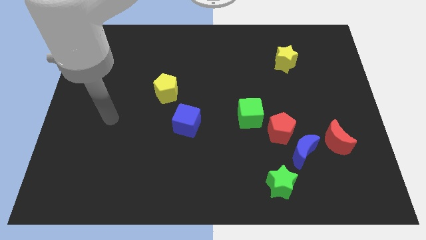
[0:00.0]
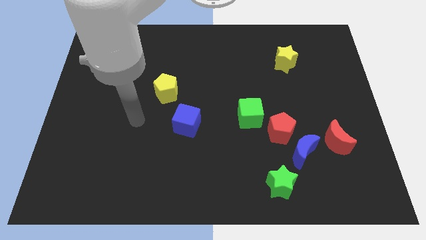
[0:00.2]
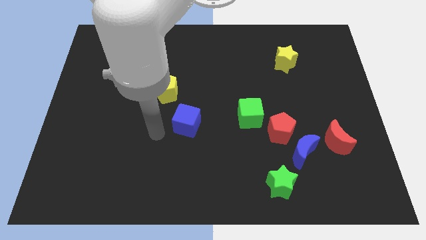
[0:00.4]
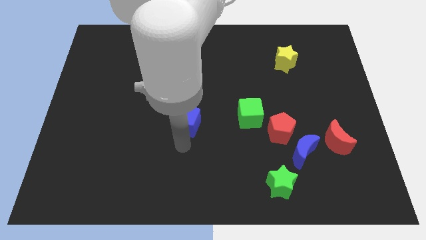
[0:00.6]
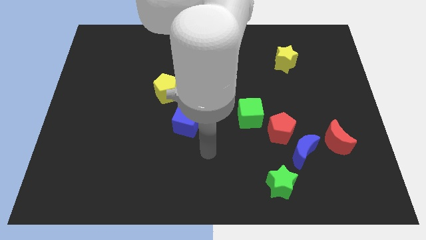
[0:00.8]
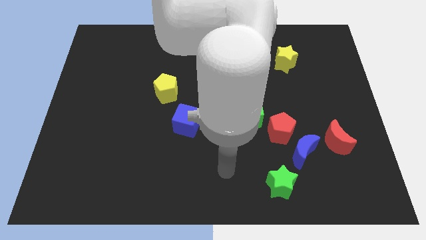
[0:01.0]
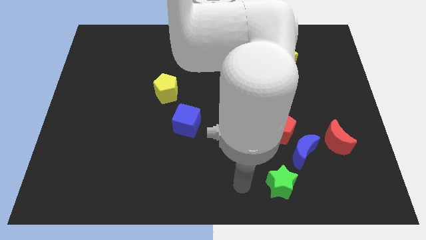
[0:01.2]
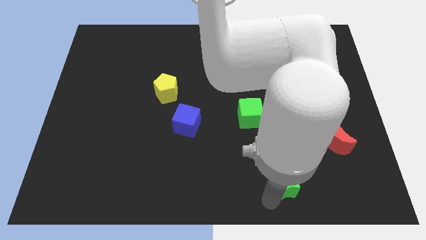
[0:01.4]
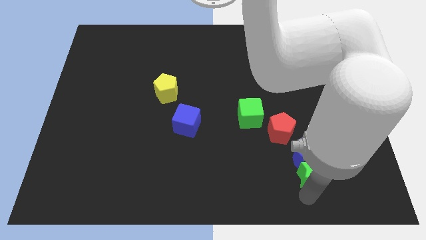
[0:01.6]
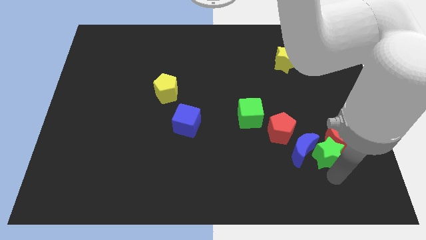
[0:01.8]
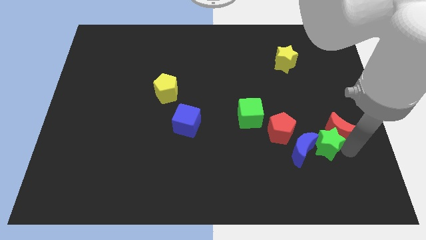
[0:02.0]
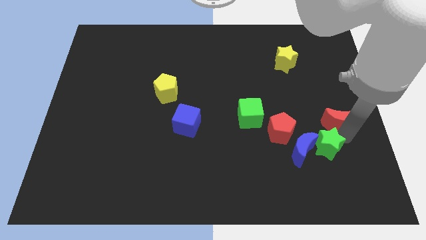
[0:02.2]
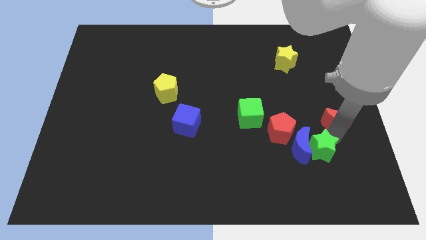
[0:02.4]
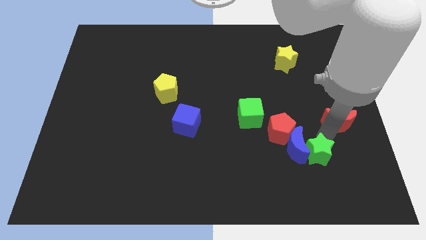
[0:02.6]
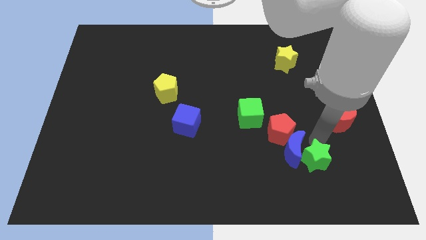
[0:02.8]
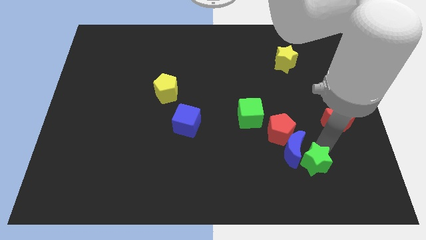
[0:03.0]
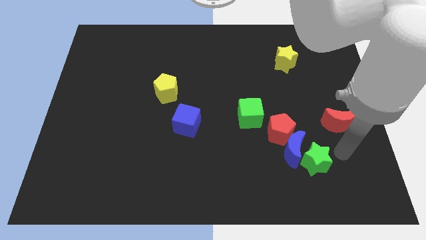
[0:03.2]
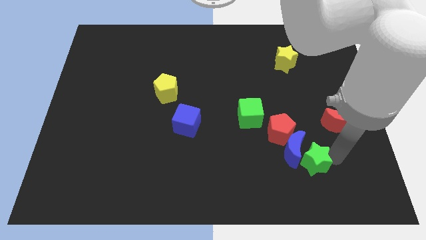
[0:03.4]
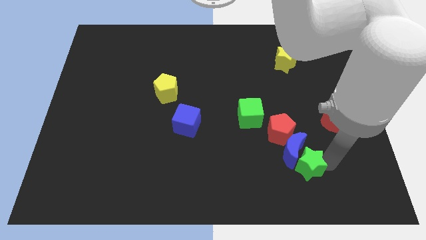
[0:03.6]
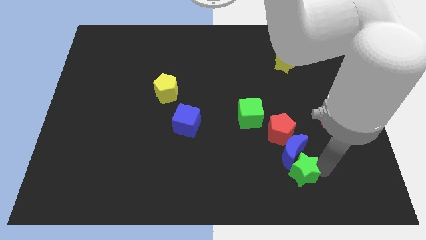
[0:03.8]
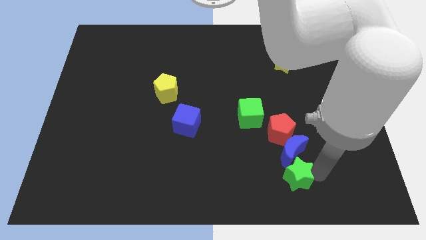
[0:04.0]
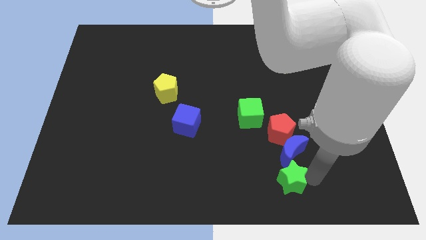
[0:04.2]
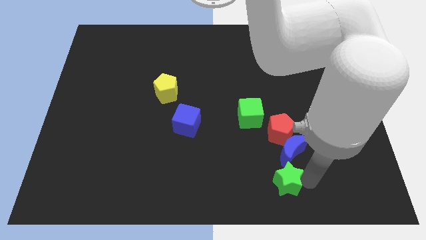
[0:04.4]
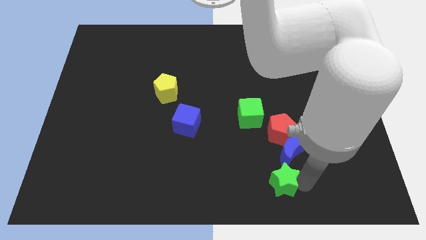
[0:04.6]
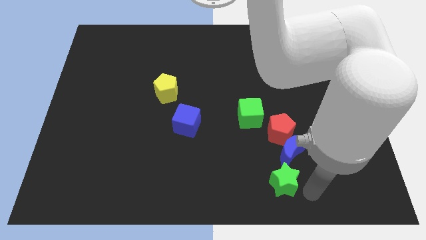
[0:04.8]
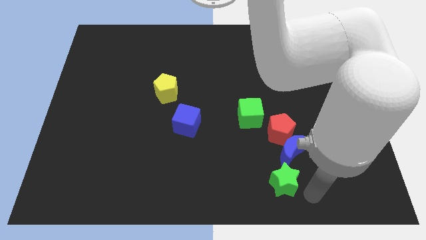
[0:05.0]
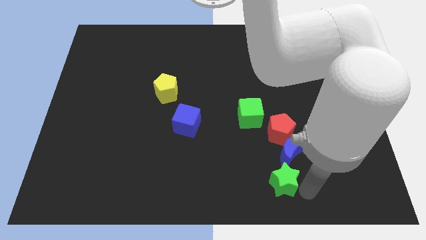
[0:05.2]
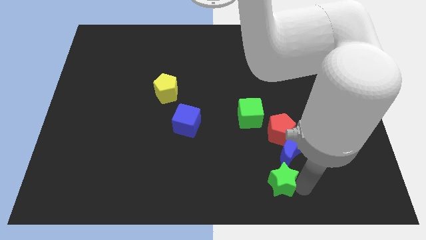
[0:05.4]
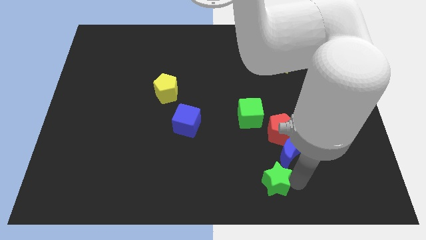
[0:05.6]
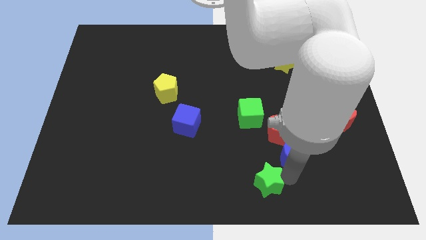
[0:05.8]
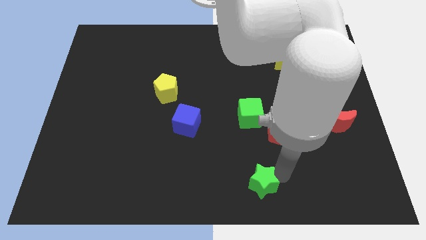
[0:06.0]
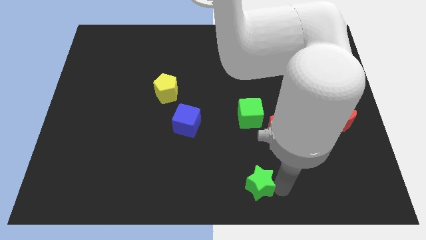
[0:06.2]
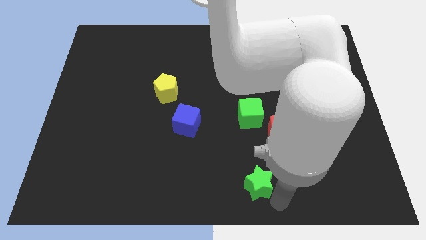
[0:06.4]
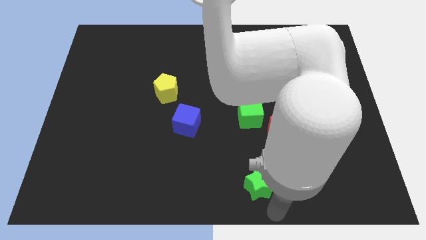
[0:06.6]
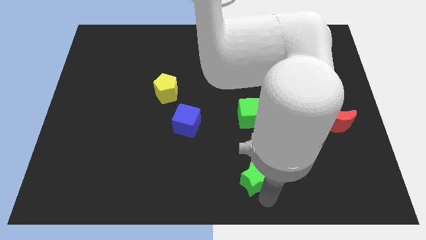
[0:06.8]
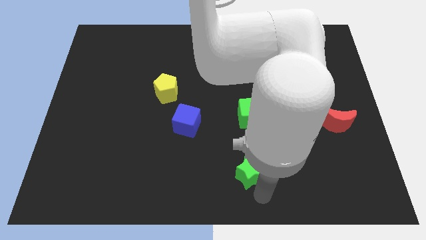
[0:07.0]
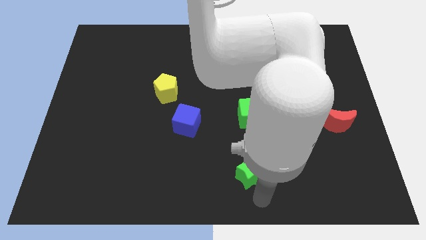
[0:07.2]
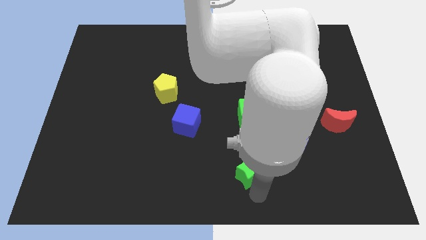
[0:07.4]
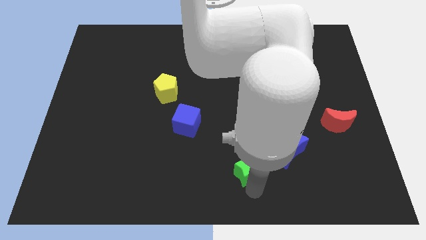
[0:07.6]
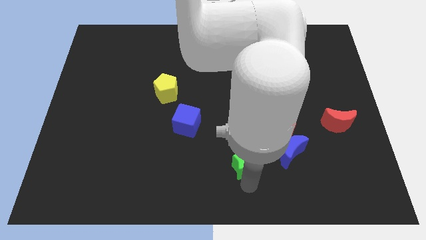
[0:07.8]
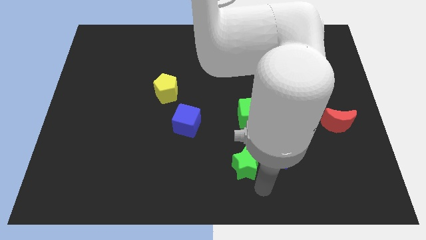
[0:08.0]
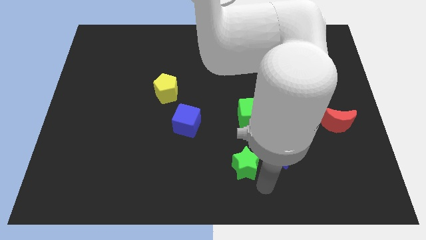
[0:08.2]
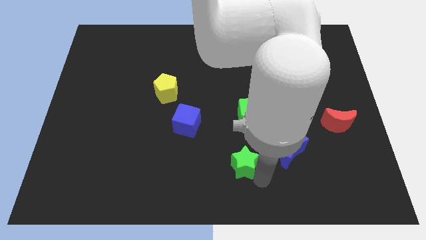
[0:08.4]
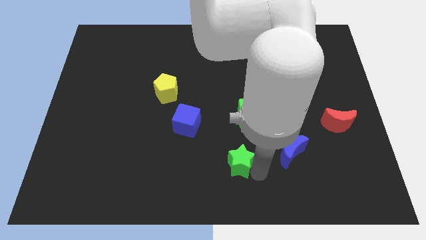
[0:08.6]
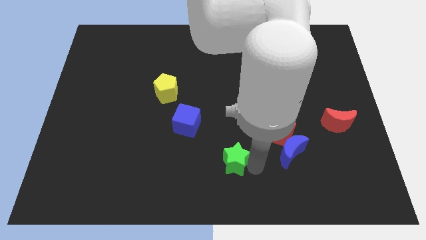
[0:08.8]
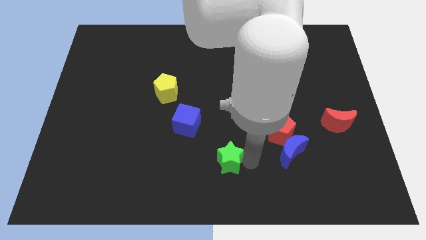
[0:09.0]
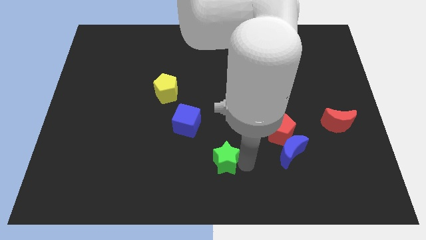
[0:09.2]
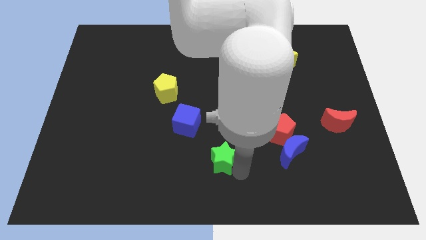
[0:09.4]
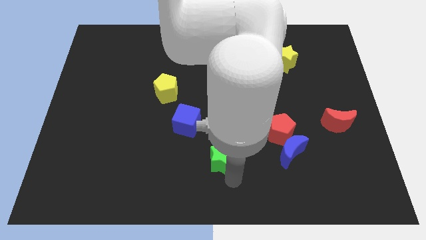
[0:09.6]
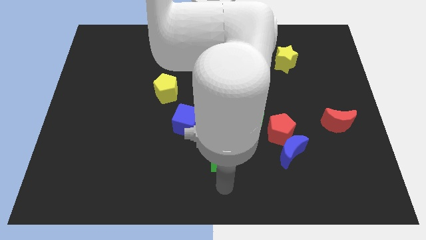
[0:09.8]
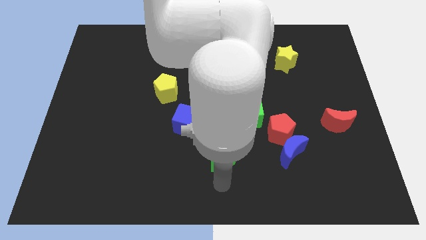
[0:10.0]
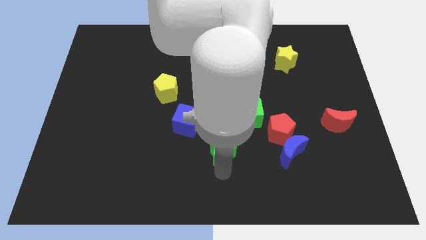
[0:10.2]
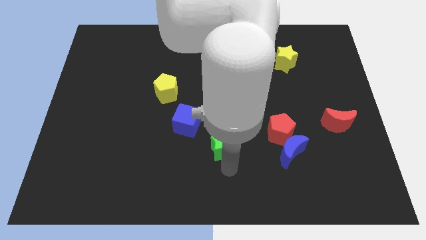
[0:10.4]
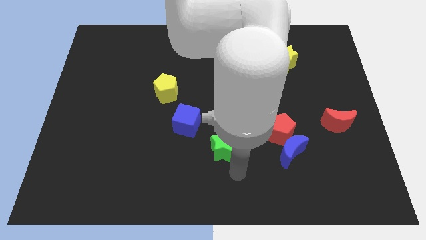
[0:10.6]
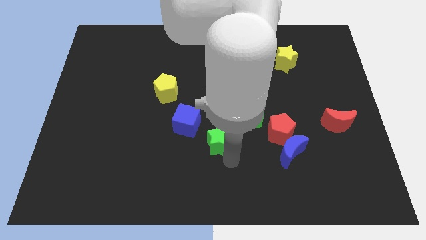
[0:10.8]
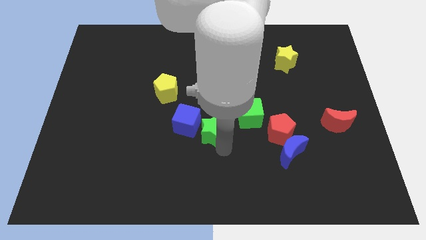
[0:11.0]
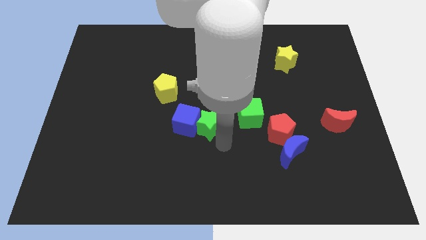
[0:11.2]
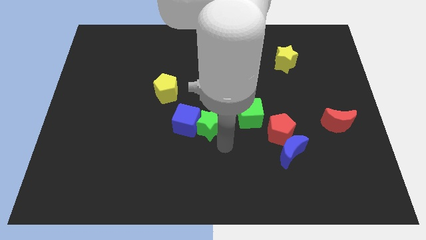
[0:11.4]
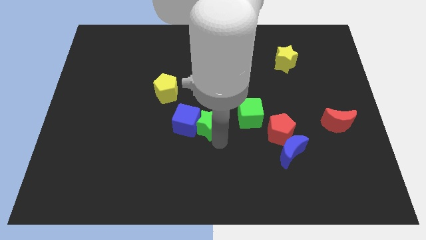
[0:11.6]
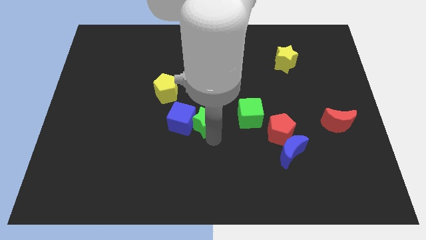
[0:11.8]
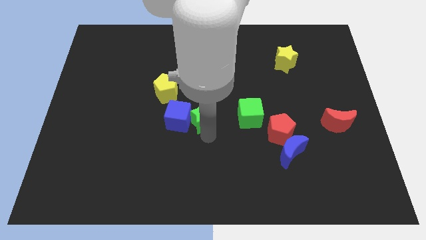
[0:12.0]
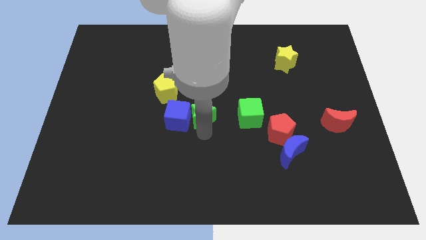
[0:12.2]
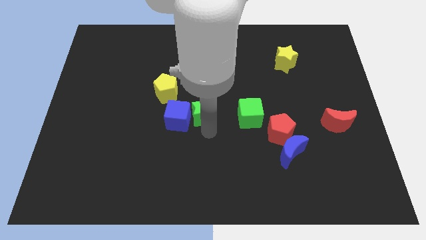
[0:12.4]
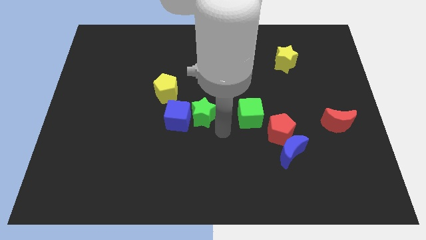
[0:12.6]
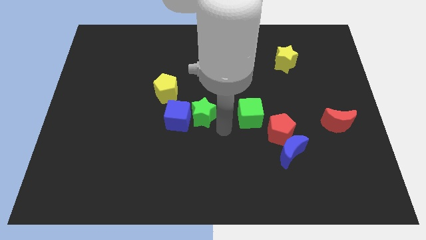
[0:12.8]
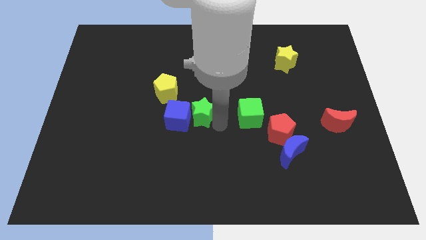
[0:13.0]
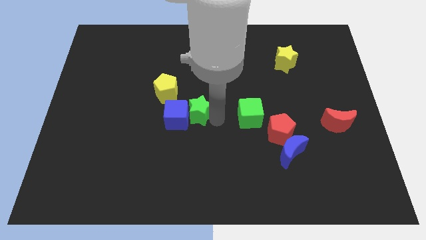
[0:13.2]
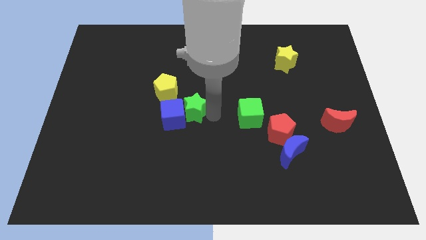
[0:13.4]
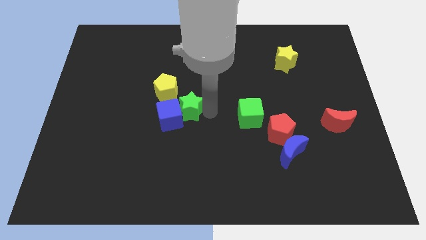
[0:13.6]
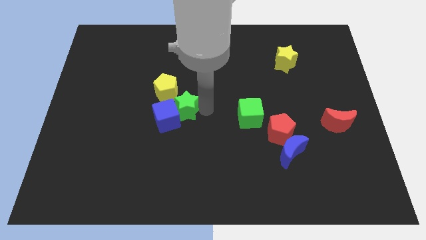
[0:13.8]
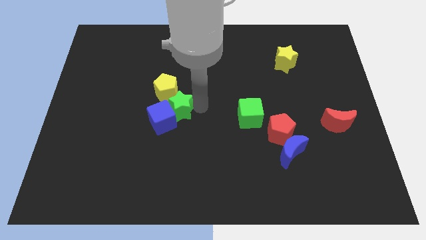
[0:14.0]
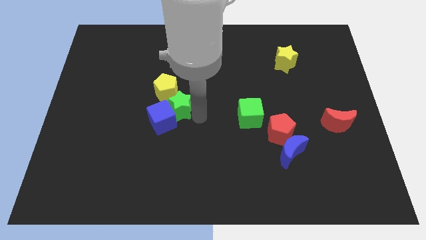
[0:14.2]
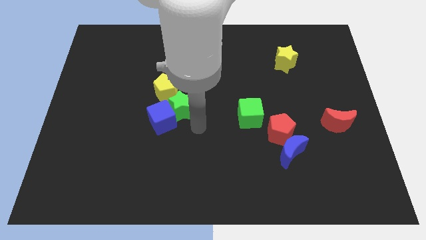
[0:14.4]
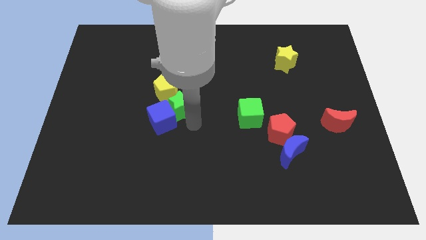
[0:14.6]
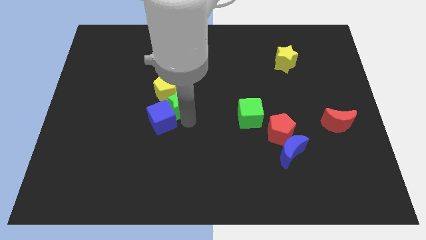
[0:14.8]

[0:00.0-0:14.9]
move the green star next to the yellow pentagon
